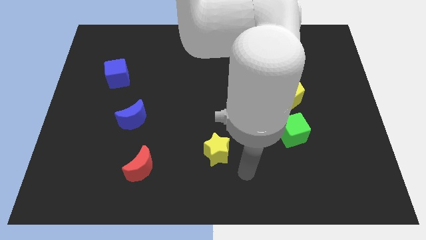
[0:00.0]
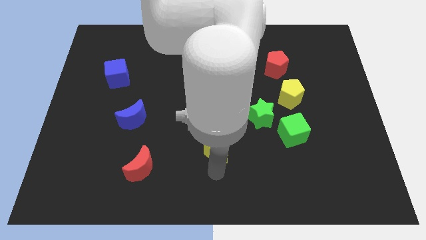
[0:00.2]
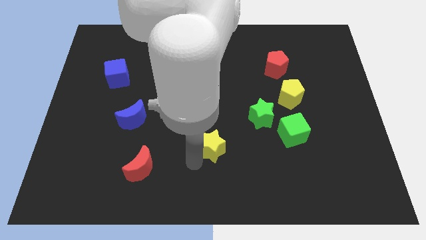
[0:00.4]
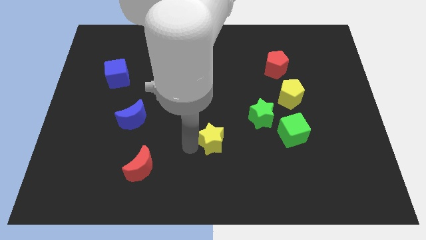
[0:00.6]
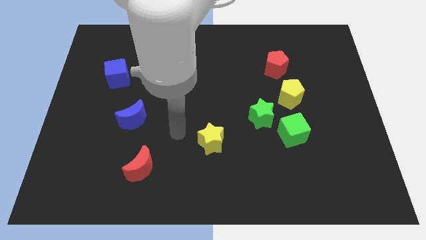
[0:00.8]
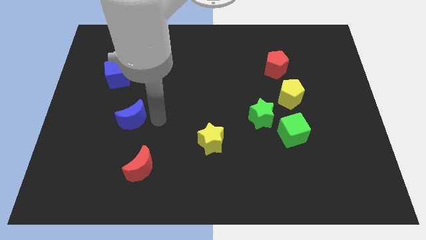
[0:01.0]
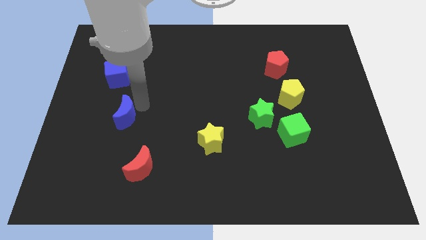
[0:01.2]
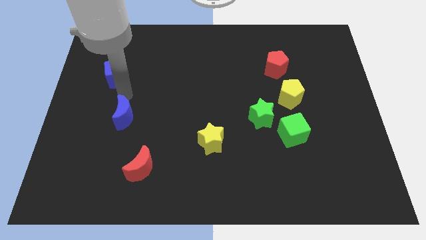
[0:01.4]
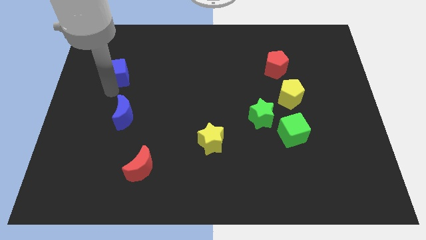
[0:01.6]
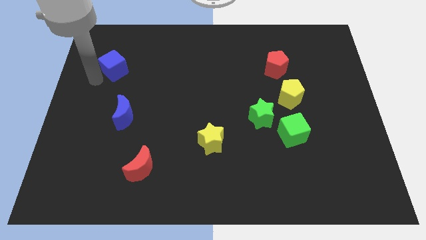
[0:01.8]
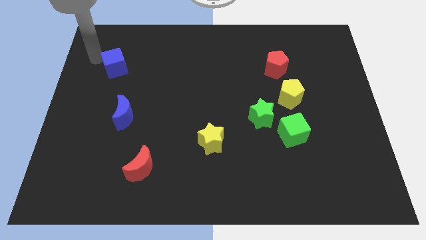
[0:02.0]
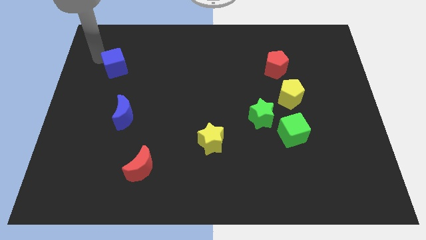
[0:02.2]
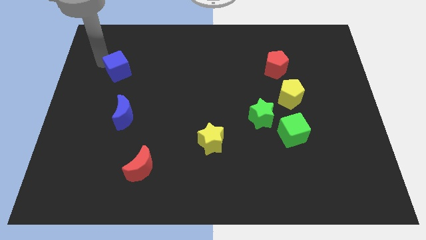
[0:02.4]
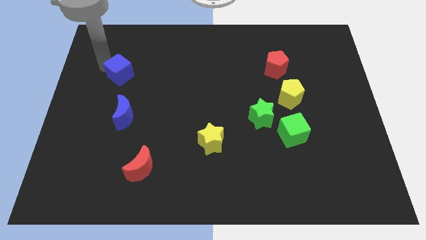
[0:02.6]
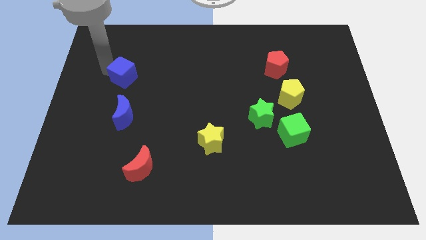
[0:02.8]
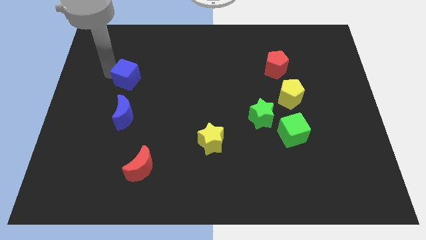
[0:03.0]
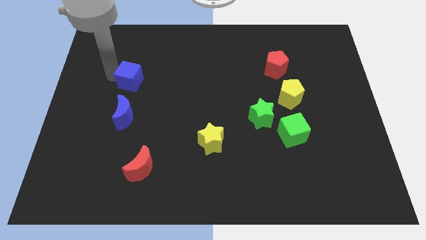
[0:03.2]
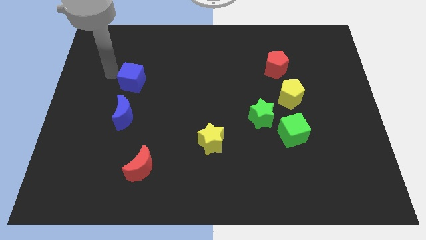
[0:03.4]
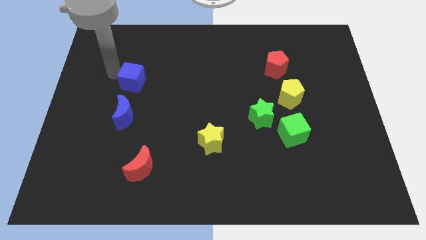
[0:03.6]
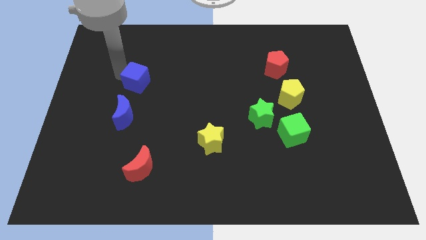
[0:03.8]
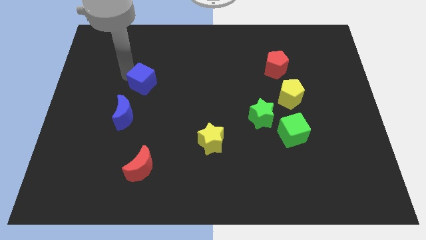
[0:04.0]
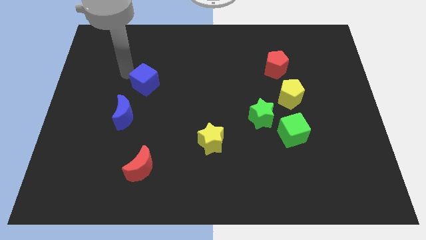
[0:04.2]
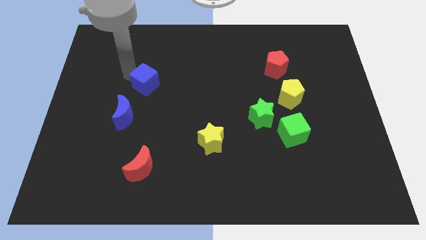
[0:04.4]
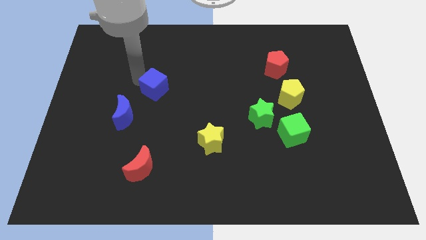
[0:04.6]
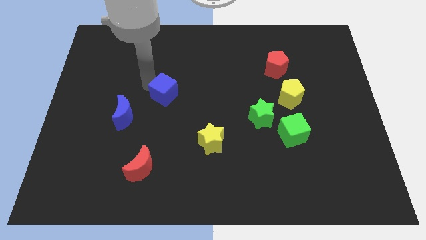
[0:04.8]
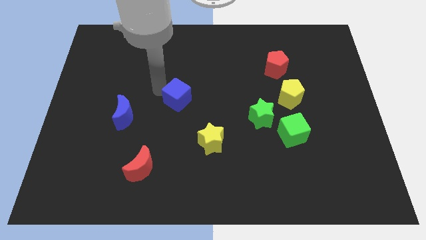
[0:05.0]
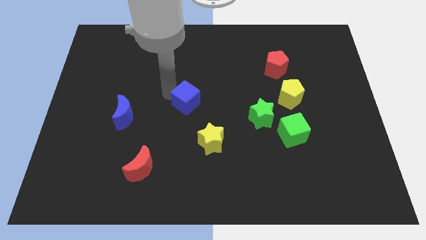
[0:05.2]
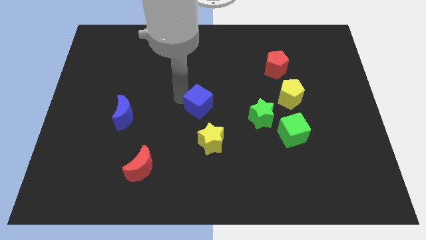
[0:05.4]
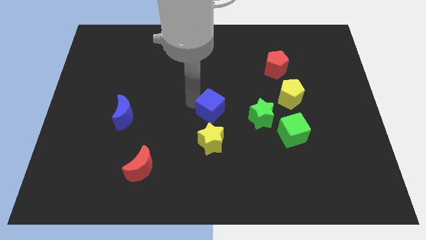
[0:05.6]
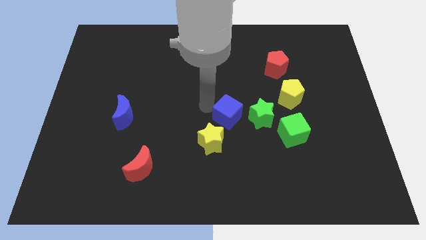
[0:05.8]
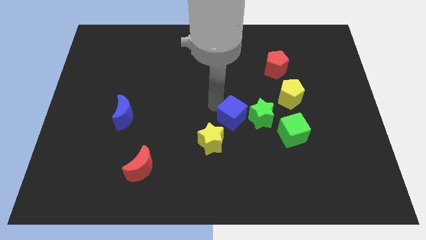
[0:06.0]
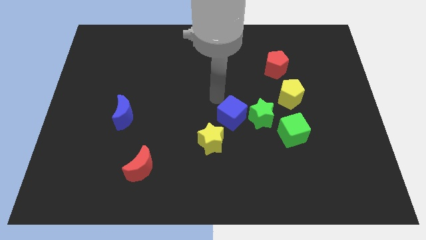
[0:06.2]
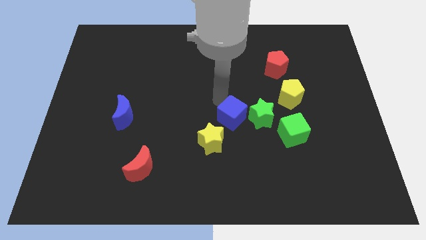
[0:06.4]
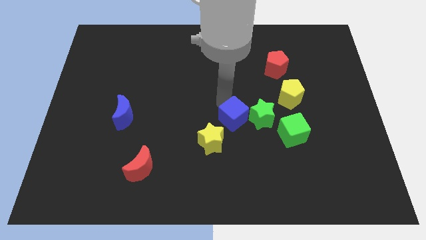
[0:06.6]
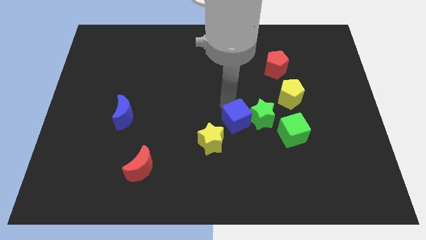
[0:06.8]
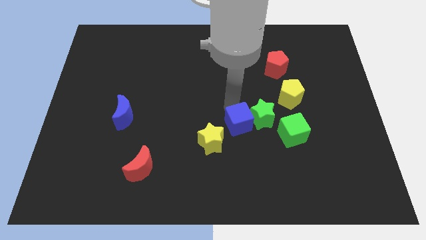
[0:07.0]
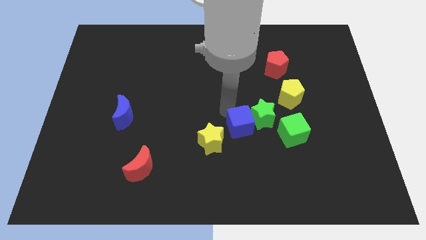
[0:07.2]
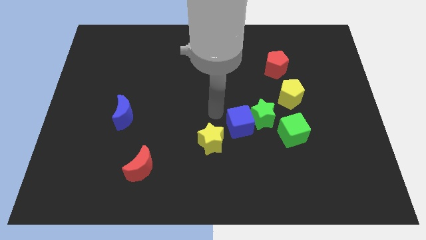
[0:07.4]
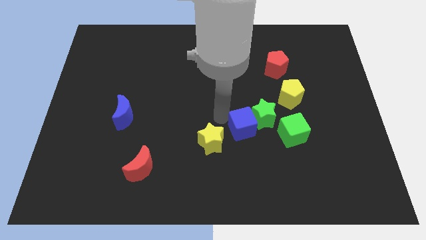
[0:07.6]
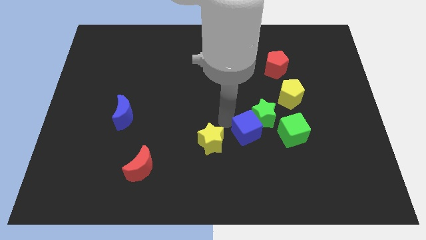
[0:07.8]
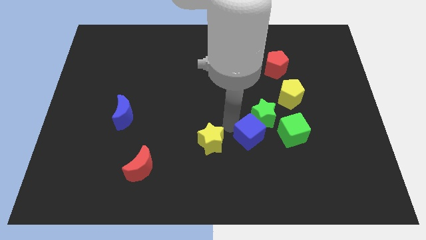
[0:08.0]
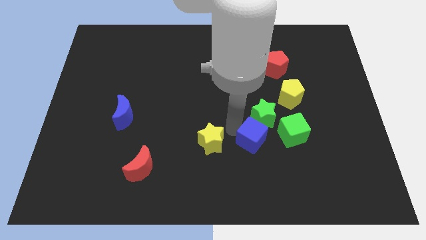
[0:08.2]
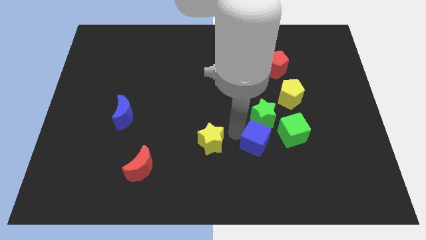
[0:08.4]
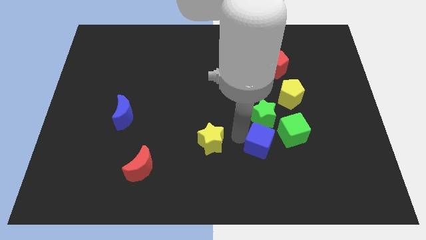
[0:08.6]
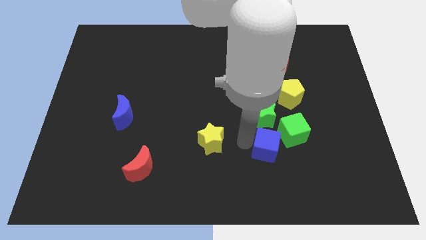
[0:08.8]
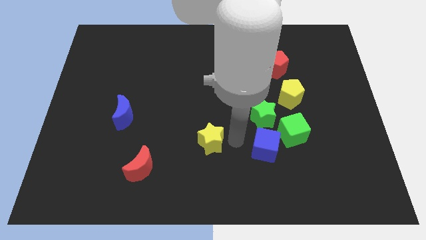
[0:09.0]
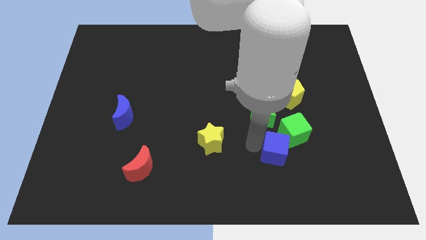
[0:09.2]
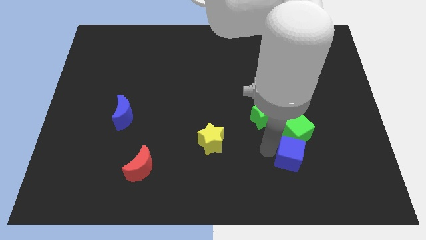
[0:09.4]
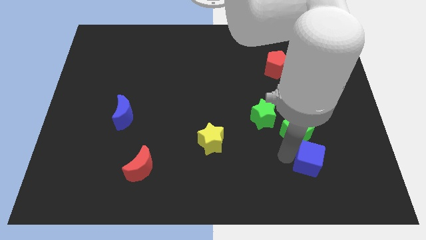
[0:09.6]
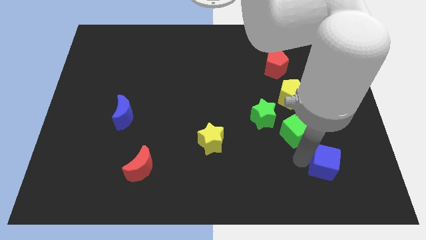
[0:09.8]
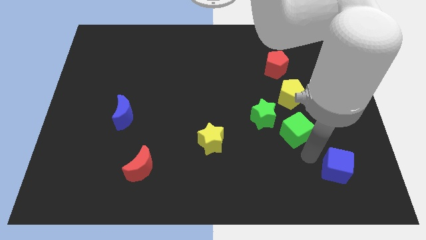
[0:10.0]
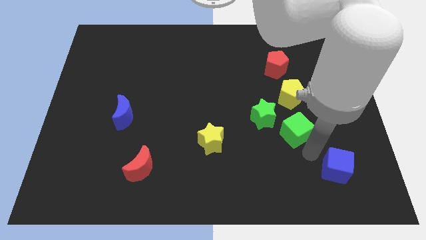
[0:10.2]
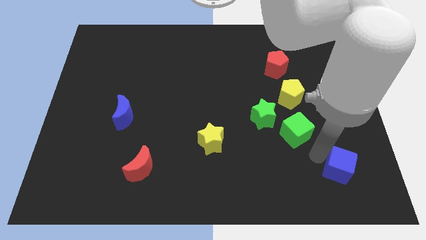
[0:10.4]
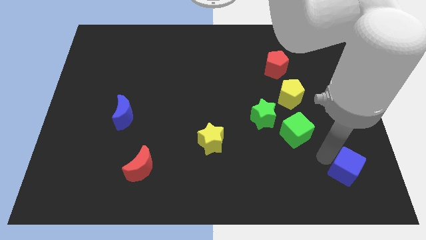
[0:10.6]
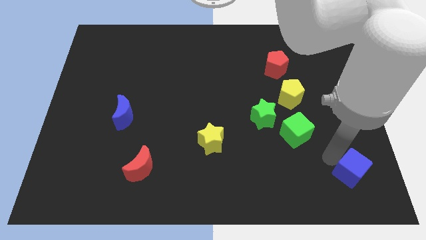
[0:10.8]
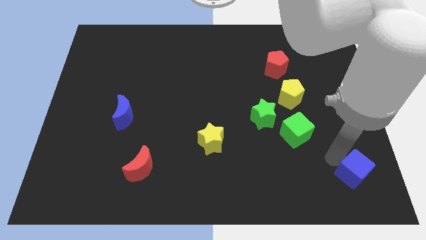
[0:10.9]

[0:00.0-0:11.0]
put the blue cube to the bottom right of the board

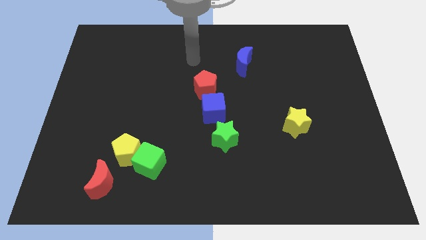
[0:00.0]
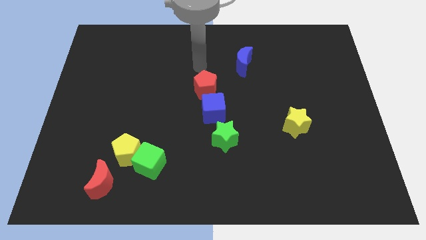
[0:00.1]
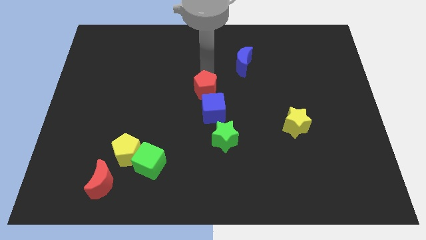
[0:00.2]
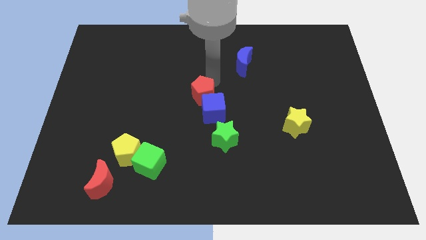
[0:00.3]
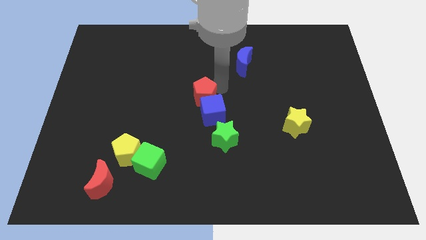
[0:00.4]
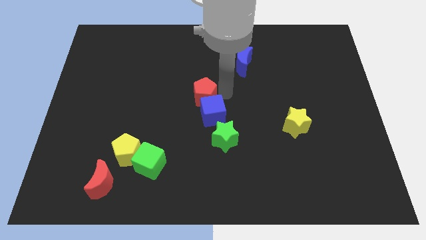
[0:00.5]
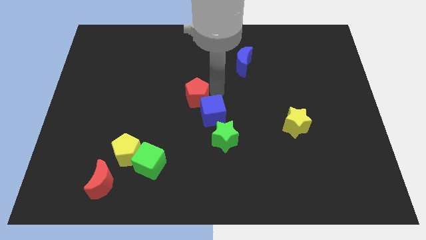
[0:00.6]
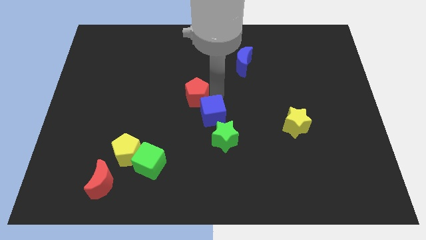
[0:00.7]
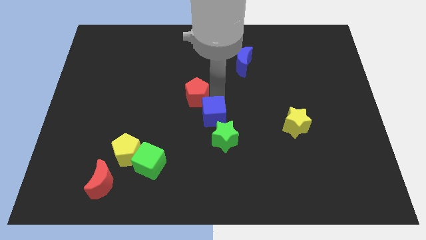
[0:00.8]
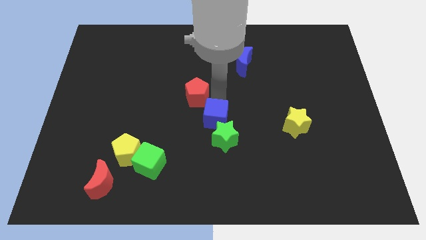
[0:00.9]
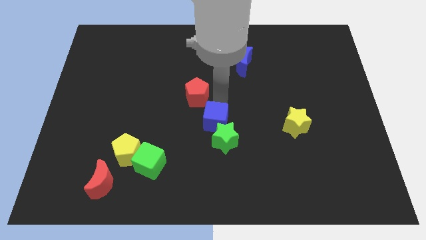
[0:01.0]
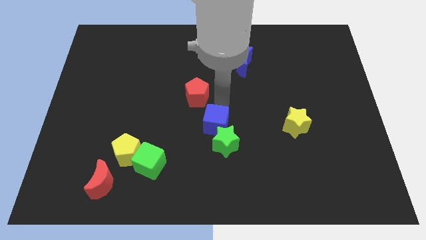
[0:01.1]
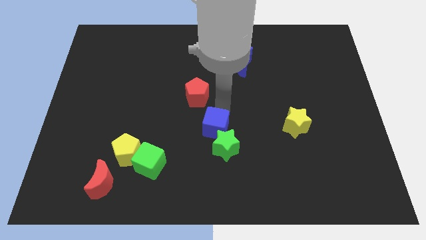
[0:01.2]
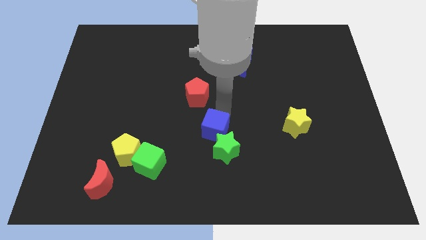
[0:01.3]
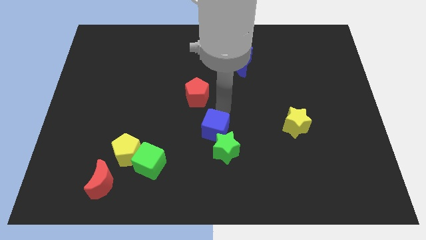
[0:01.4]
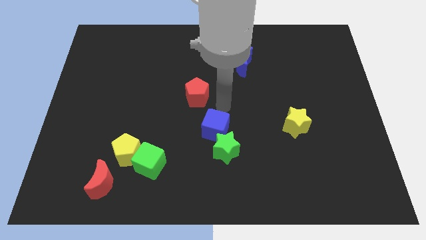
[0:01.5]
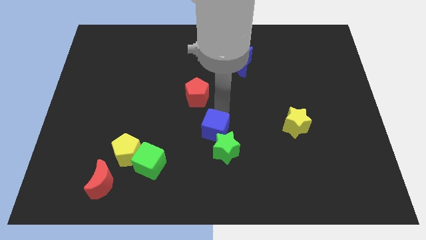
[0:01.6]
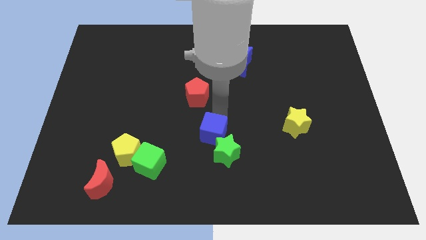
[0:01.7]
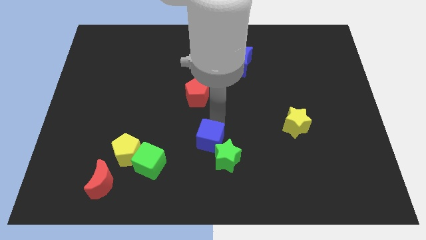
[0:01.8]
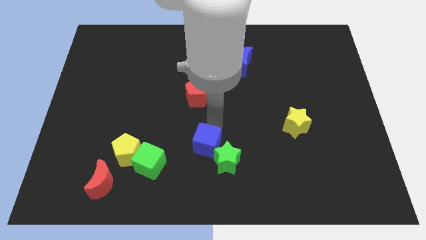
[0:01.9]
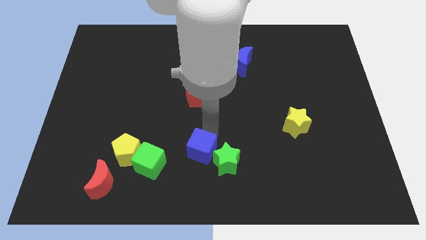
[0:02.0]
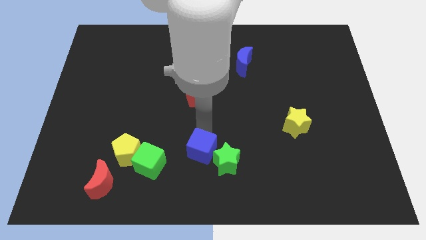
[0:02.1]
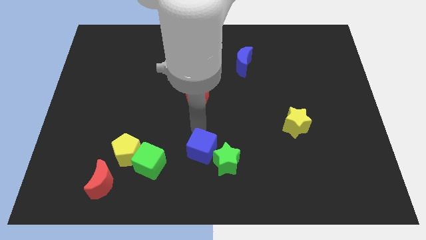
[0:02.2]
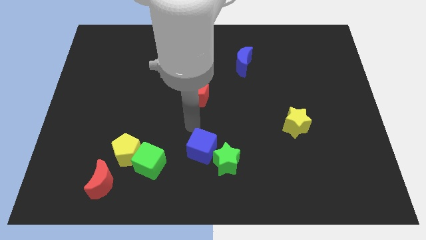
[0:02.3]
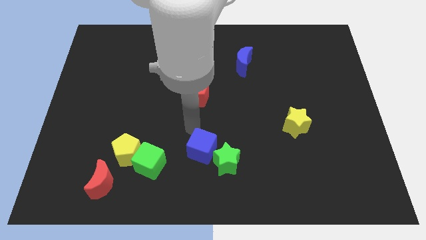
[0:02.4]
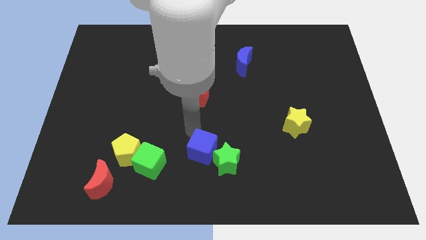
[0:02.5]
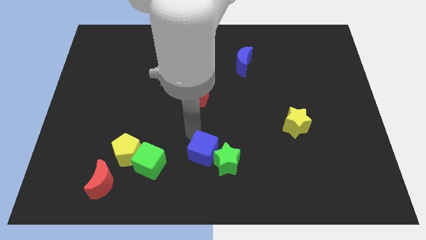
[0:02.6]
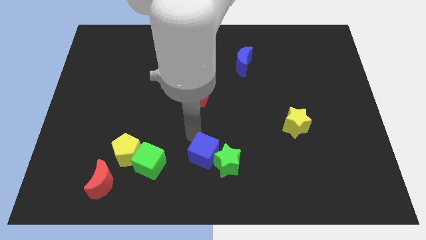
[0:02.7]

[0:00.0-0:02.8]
put the blue cube to the bottom side
